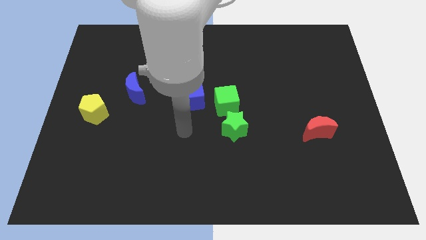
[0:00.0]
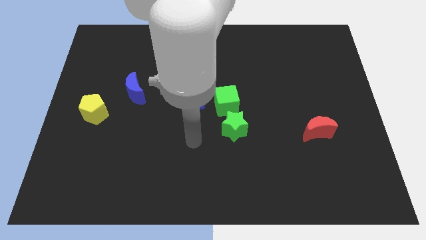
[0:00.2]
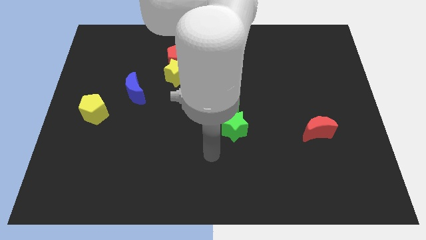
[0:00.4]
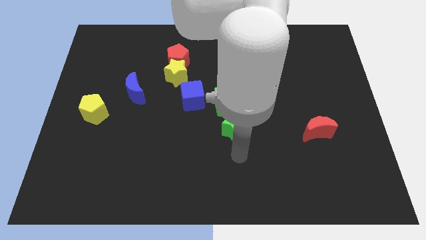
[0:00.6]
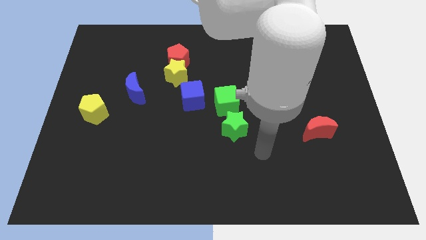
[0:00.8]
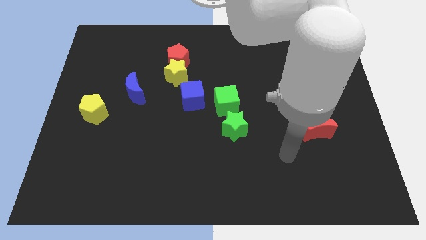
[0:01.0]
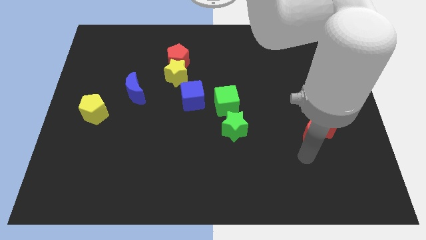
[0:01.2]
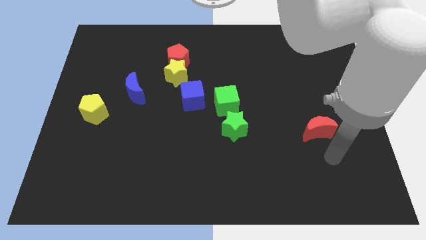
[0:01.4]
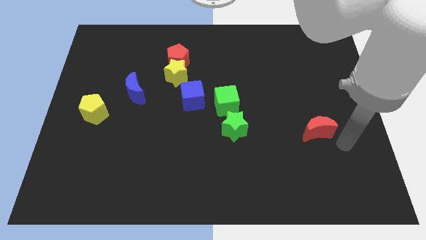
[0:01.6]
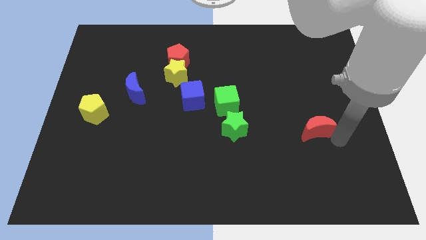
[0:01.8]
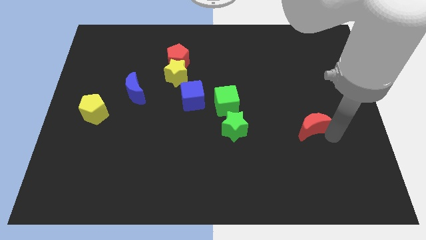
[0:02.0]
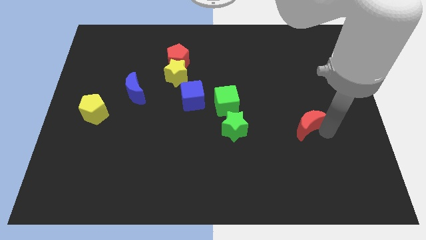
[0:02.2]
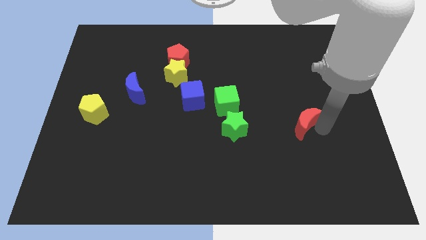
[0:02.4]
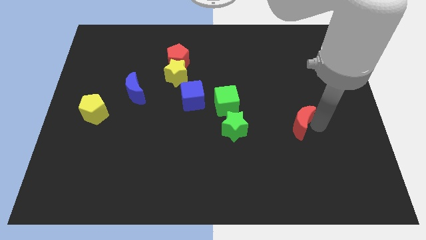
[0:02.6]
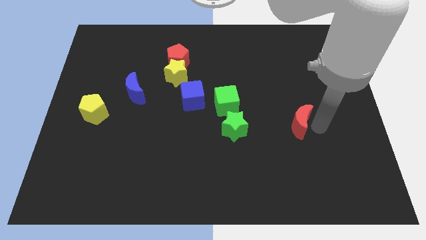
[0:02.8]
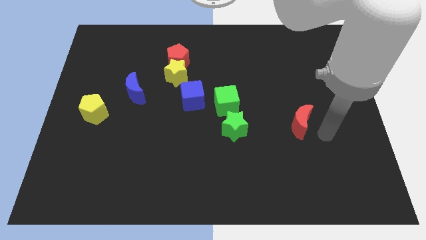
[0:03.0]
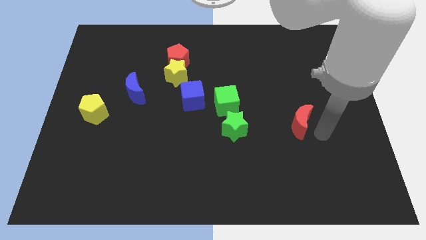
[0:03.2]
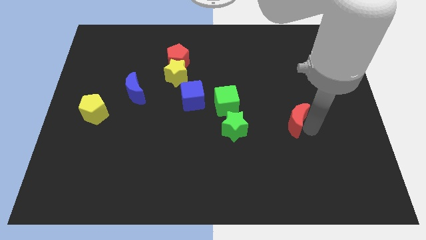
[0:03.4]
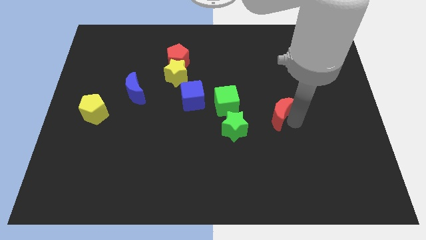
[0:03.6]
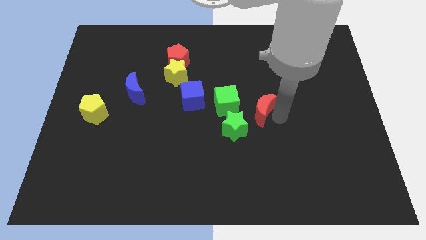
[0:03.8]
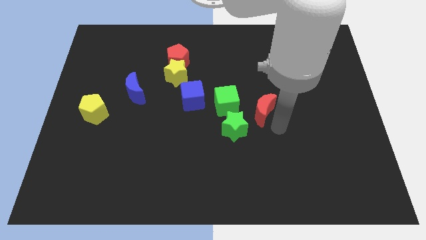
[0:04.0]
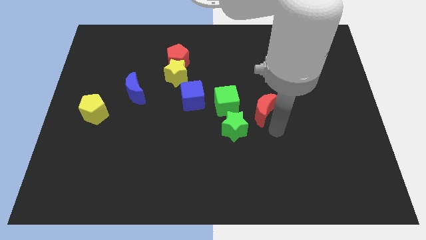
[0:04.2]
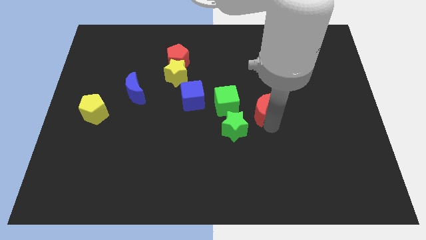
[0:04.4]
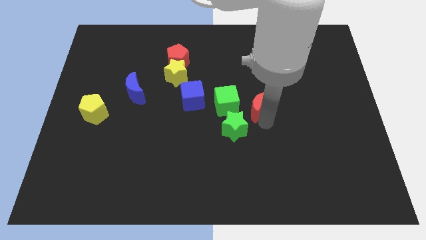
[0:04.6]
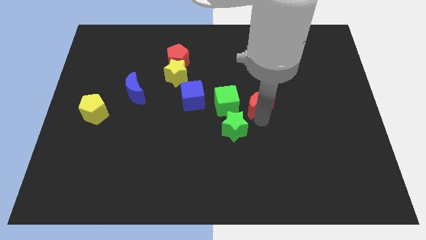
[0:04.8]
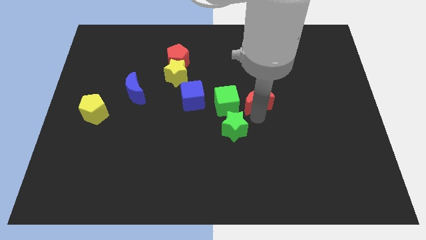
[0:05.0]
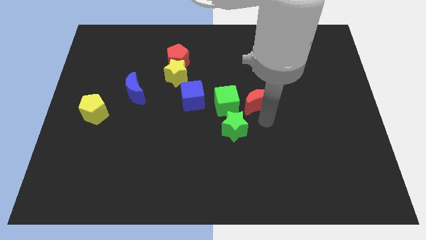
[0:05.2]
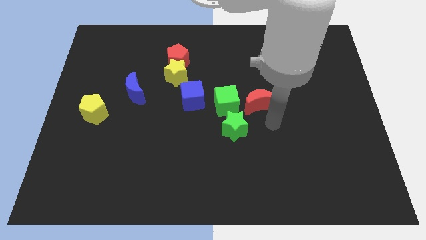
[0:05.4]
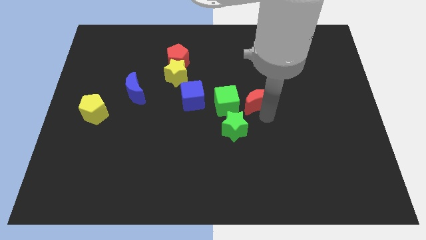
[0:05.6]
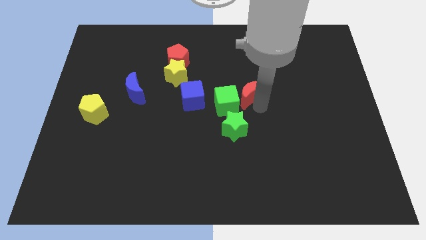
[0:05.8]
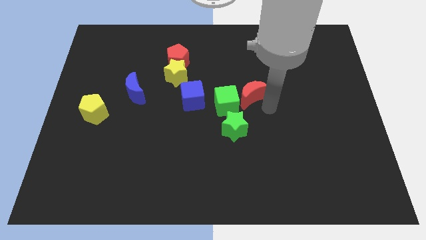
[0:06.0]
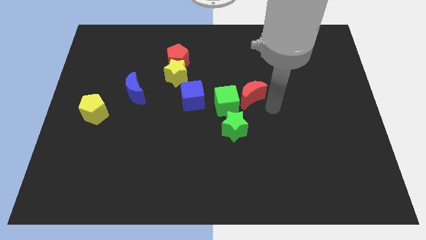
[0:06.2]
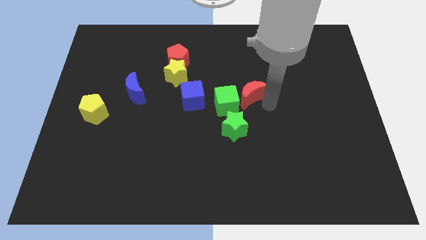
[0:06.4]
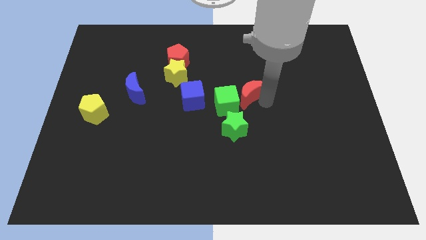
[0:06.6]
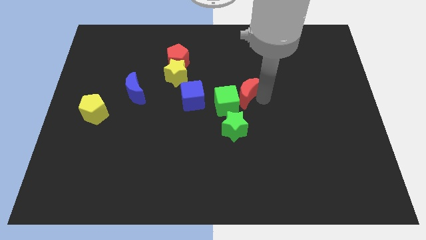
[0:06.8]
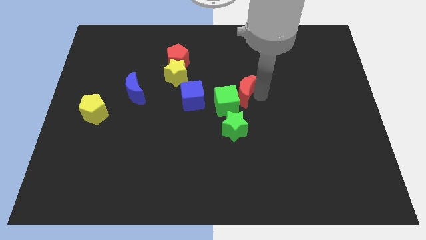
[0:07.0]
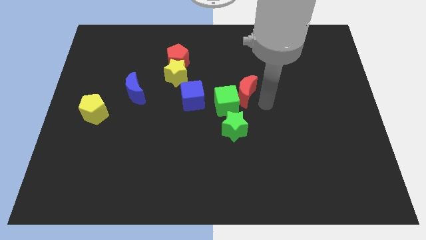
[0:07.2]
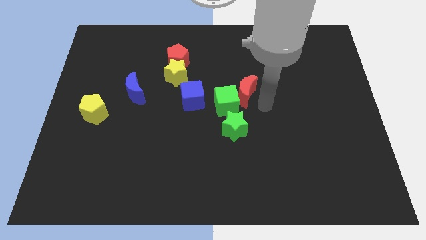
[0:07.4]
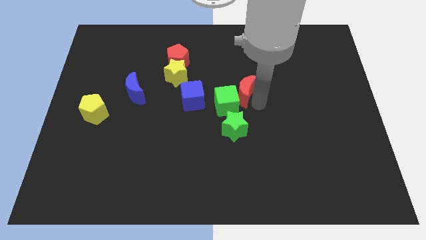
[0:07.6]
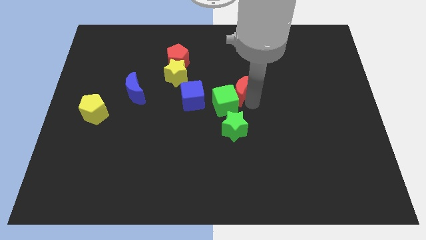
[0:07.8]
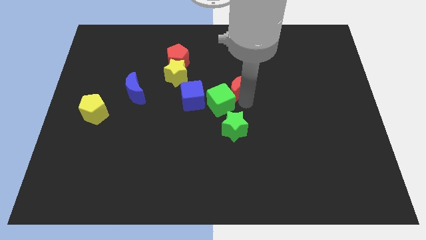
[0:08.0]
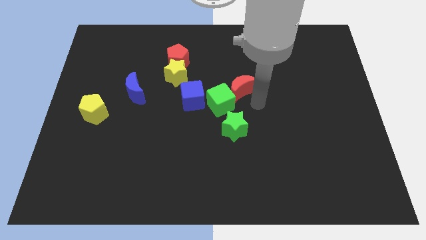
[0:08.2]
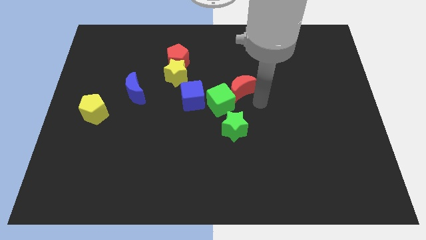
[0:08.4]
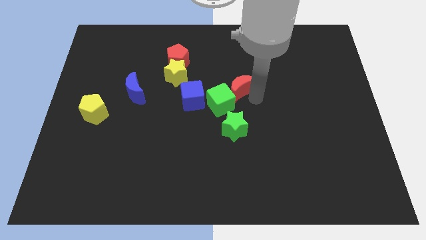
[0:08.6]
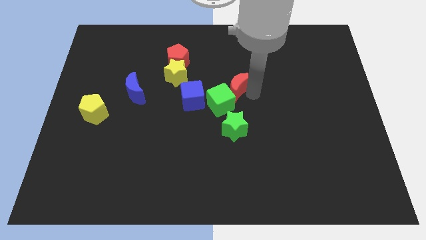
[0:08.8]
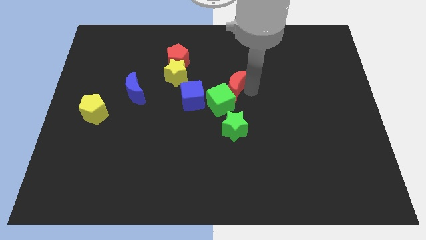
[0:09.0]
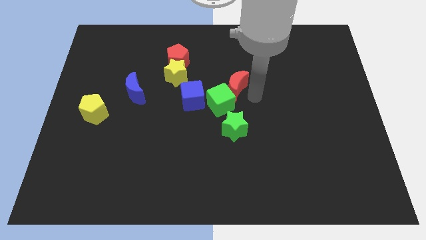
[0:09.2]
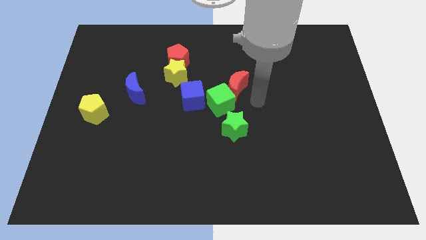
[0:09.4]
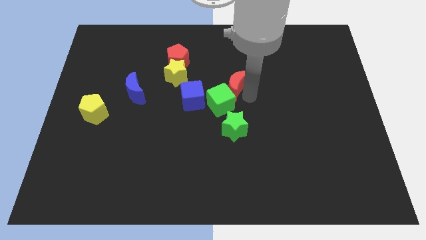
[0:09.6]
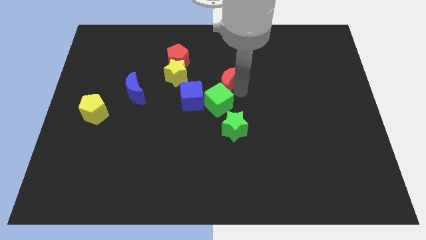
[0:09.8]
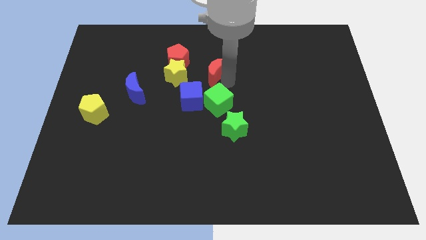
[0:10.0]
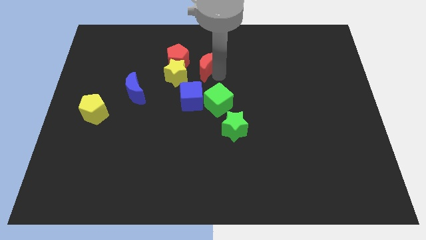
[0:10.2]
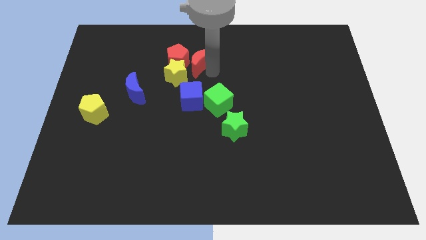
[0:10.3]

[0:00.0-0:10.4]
push the red moon next to the red pentagon

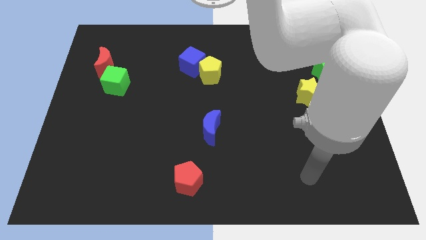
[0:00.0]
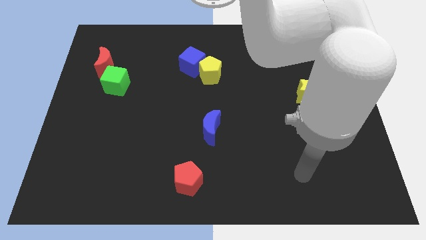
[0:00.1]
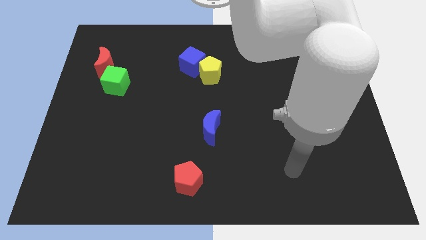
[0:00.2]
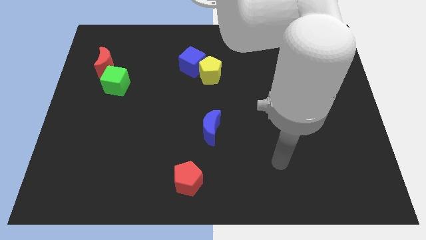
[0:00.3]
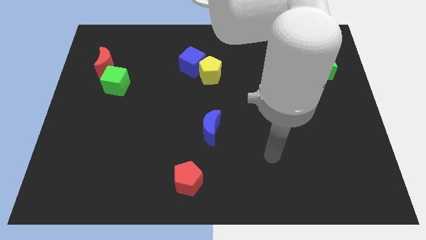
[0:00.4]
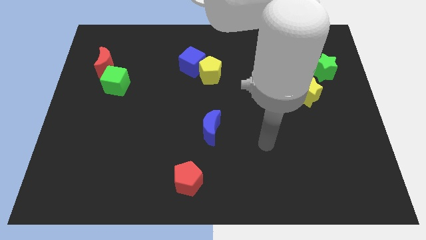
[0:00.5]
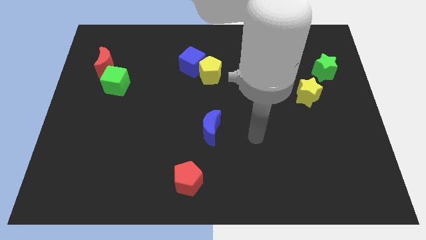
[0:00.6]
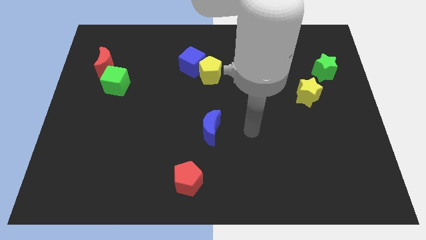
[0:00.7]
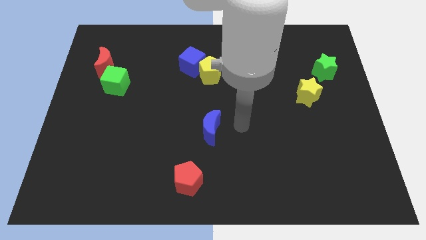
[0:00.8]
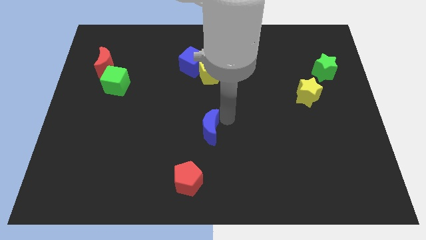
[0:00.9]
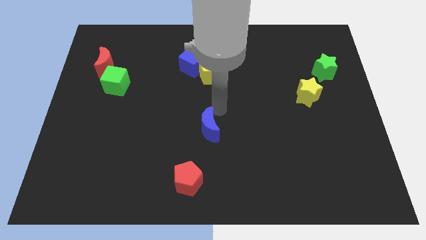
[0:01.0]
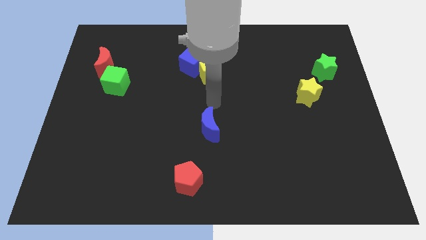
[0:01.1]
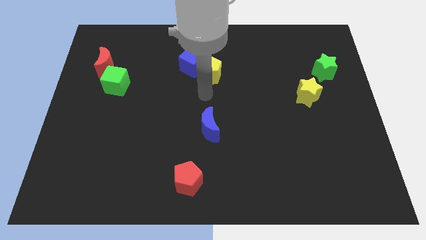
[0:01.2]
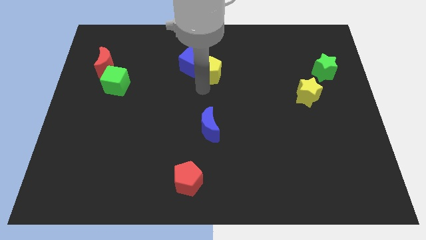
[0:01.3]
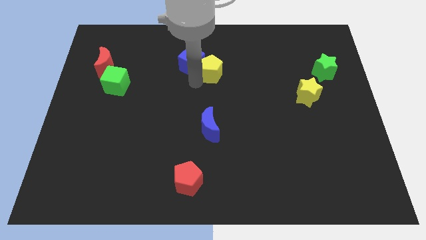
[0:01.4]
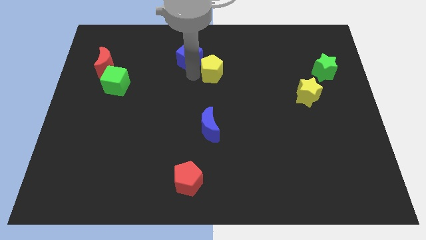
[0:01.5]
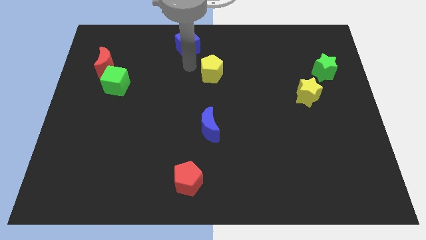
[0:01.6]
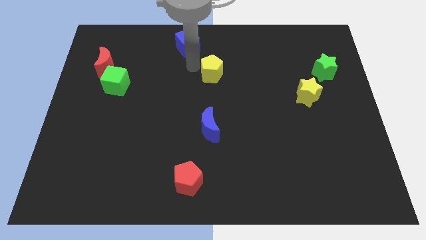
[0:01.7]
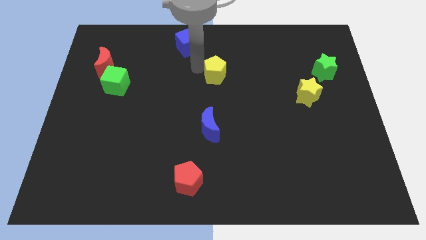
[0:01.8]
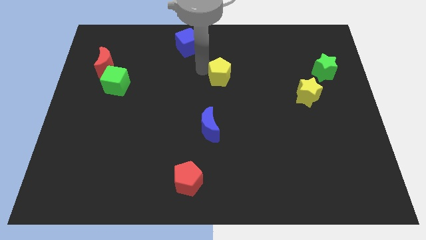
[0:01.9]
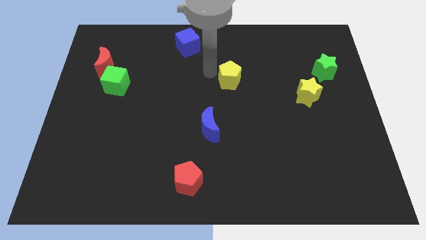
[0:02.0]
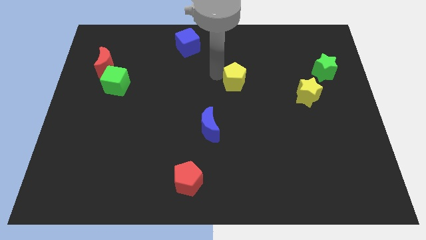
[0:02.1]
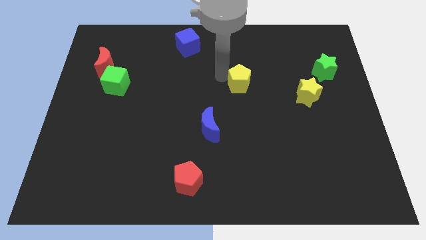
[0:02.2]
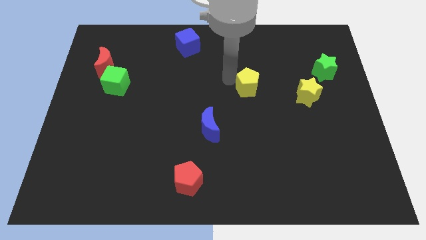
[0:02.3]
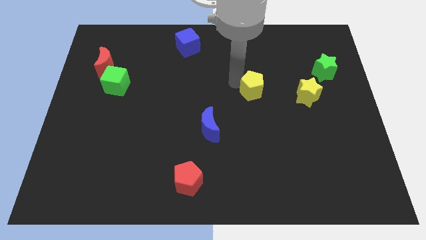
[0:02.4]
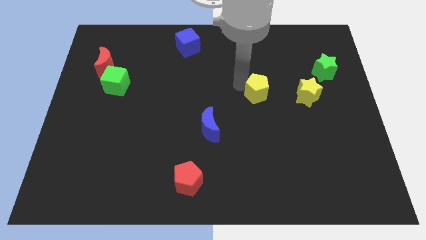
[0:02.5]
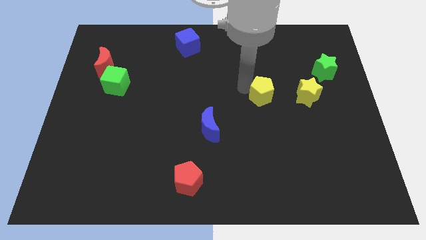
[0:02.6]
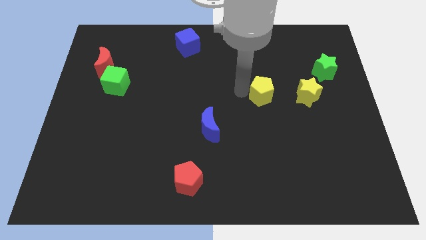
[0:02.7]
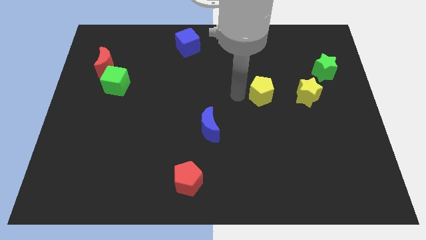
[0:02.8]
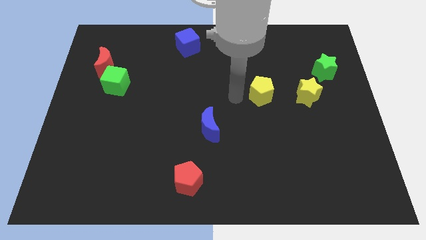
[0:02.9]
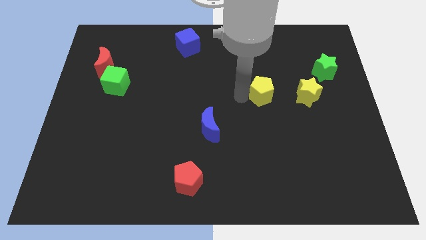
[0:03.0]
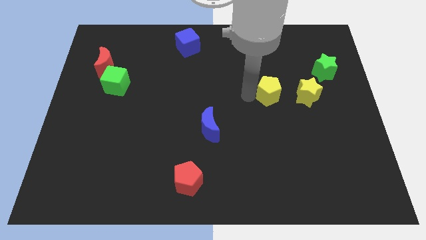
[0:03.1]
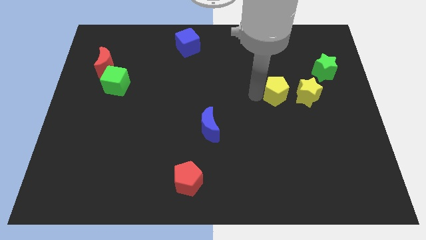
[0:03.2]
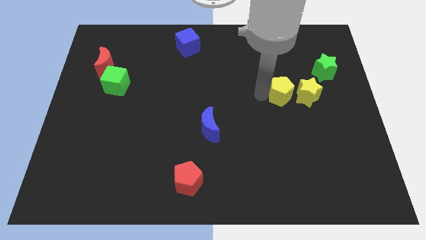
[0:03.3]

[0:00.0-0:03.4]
put the yellow pentagon to the yellow star
